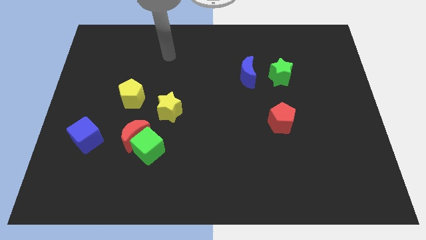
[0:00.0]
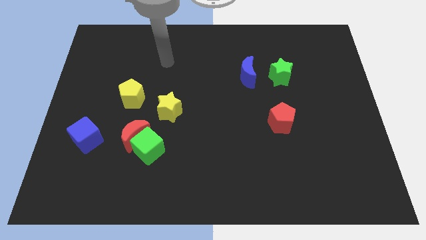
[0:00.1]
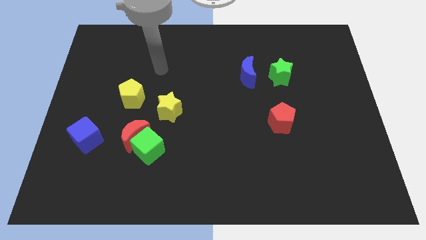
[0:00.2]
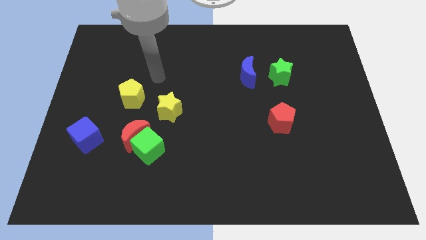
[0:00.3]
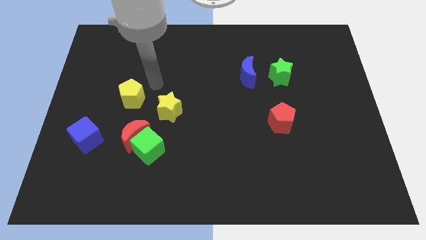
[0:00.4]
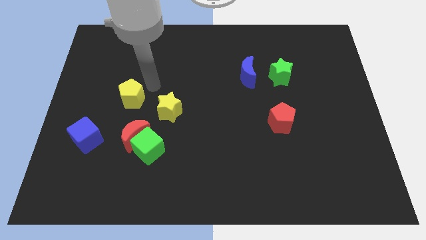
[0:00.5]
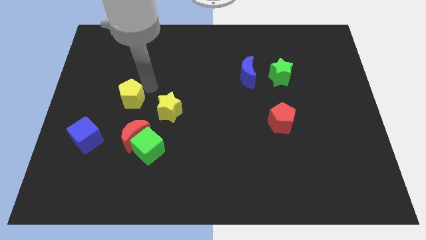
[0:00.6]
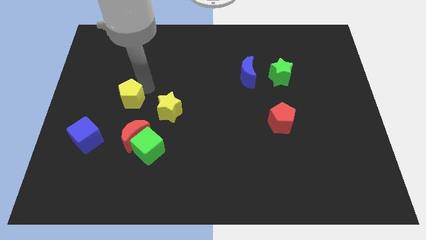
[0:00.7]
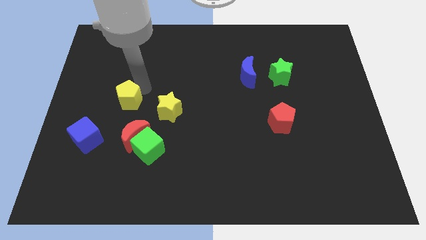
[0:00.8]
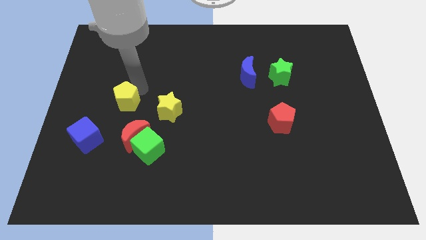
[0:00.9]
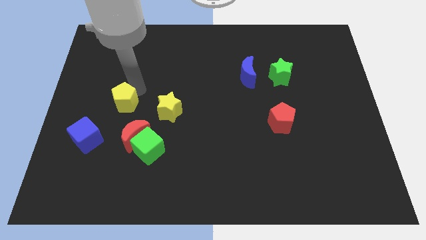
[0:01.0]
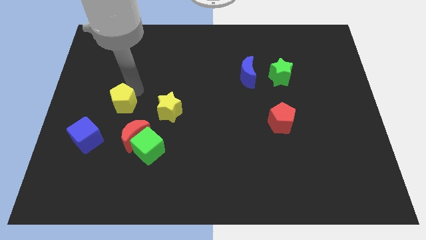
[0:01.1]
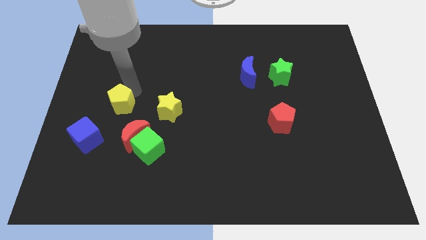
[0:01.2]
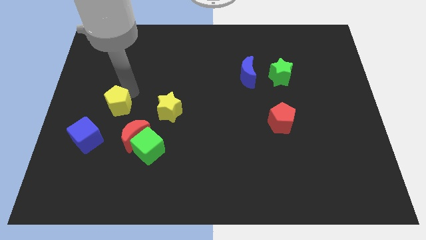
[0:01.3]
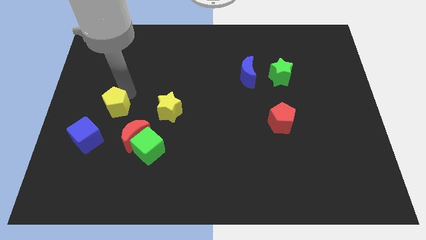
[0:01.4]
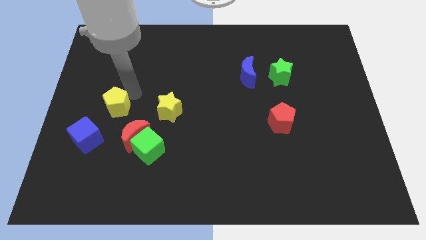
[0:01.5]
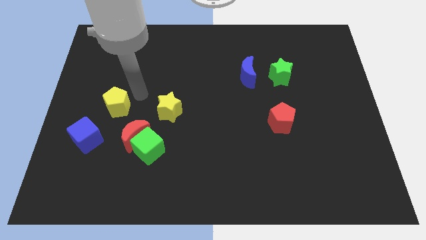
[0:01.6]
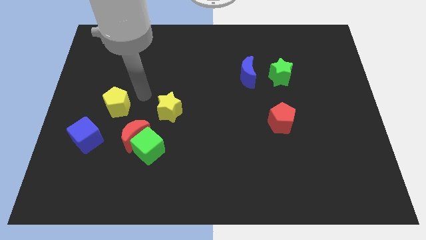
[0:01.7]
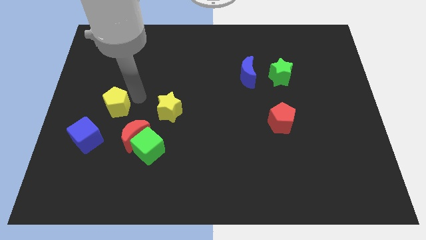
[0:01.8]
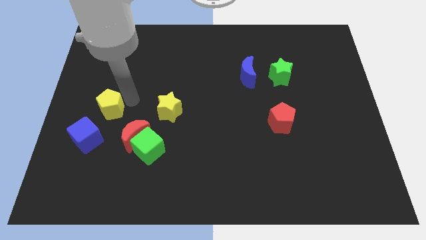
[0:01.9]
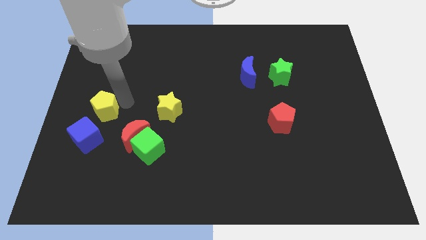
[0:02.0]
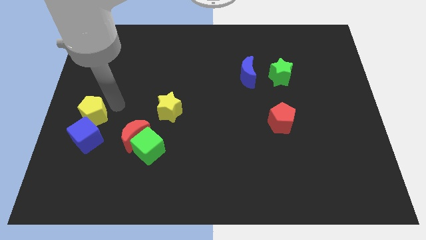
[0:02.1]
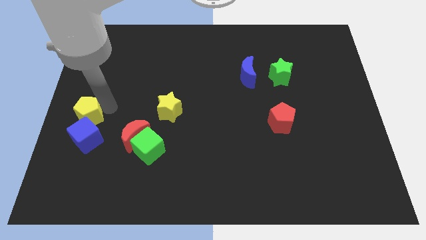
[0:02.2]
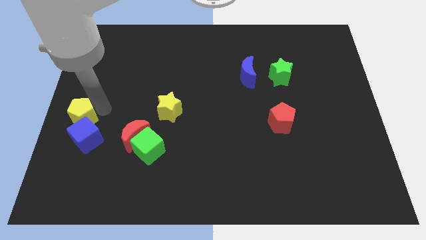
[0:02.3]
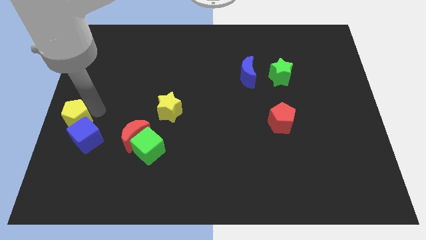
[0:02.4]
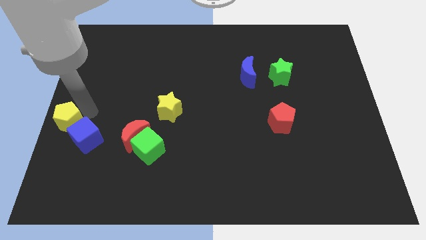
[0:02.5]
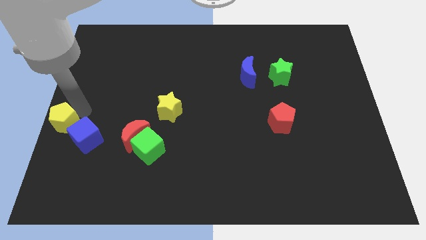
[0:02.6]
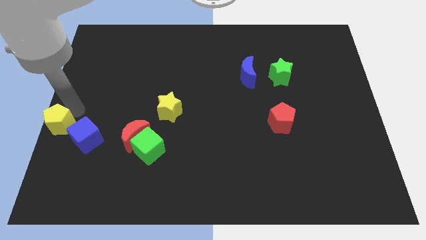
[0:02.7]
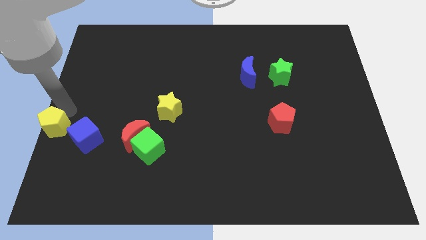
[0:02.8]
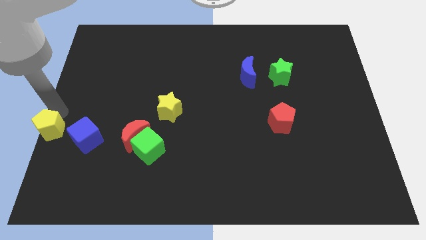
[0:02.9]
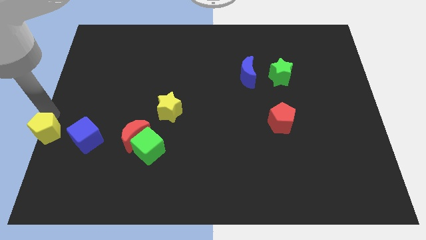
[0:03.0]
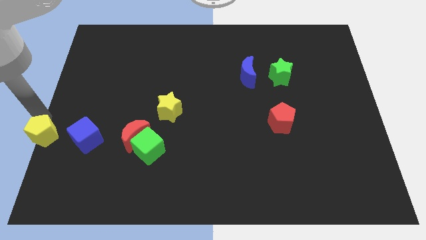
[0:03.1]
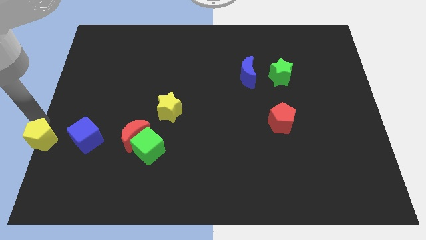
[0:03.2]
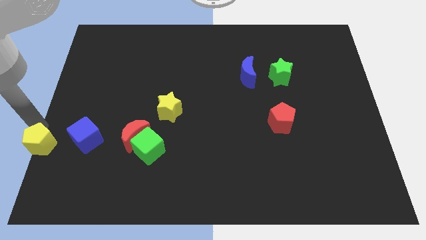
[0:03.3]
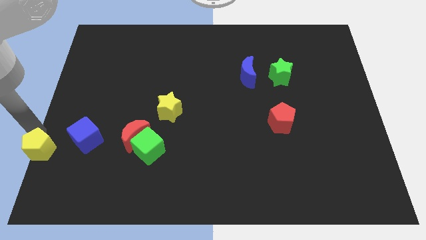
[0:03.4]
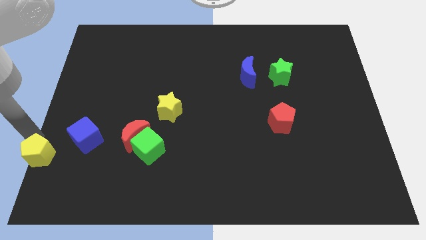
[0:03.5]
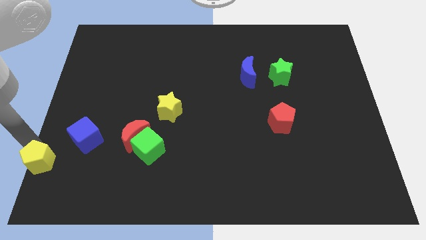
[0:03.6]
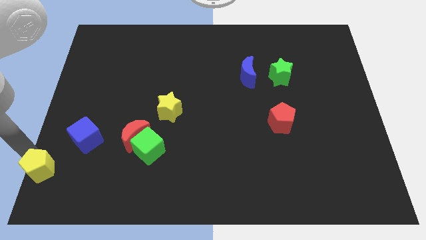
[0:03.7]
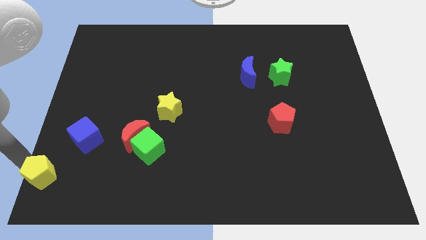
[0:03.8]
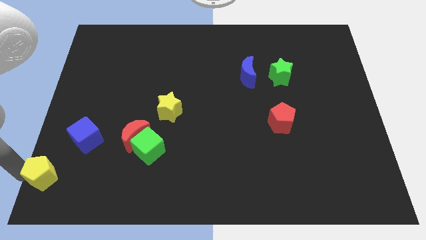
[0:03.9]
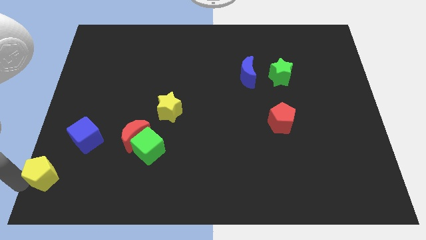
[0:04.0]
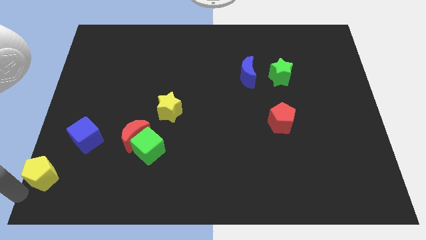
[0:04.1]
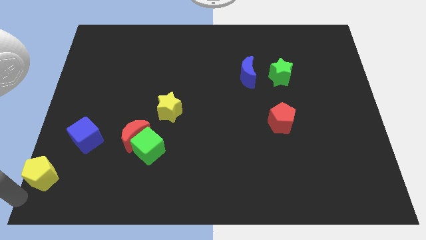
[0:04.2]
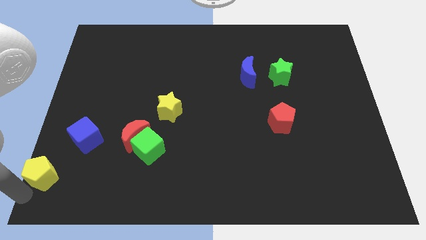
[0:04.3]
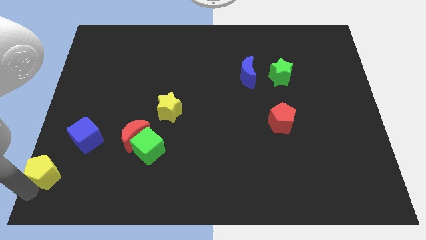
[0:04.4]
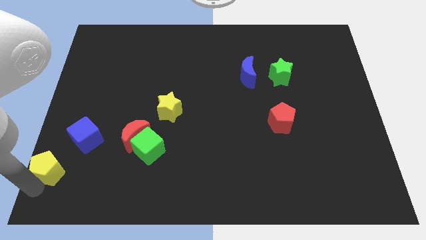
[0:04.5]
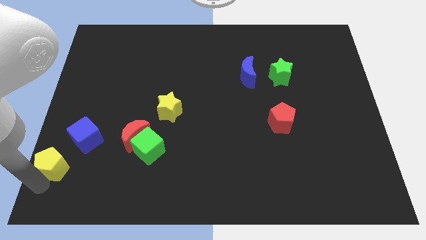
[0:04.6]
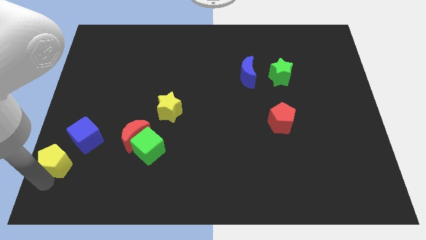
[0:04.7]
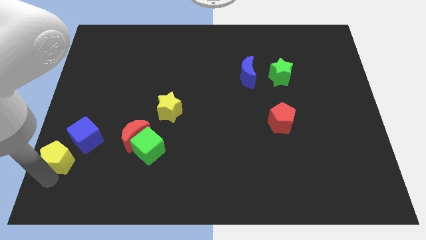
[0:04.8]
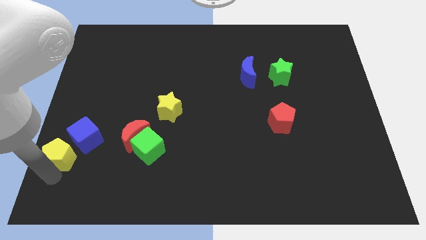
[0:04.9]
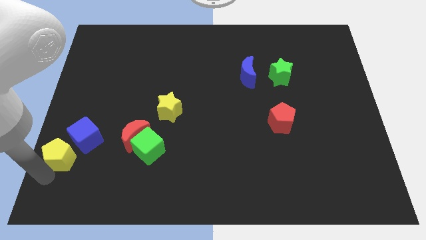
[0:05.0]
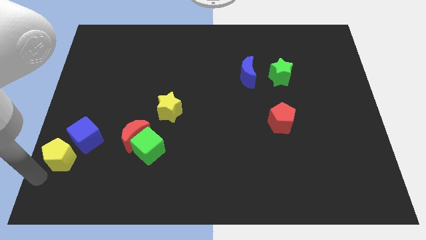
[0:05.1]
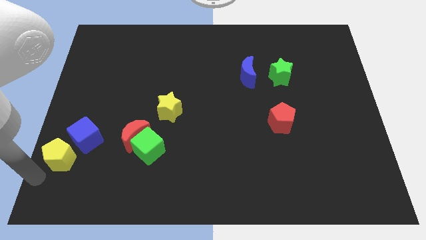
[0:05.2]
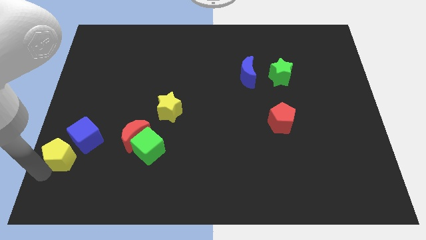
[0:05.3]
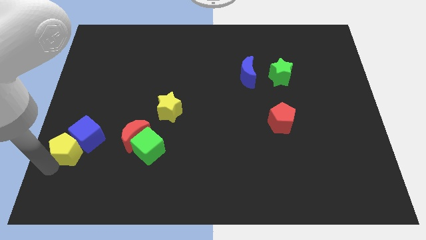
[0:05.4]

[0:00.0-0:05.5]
put the yellow pentagon left of the red moon

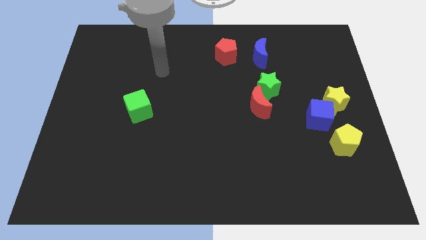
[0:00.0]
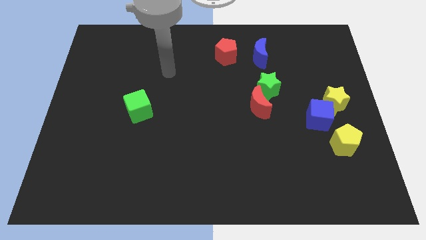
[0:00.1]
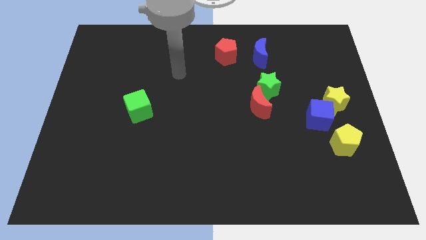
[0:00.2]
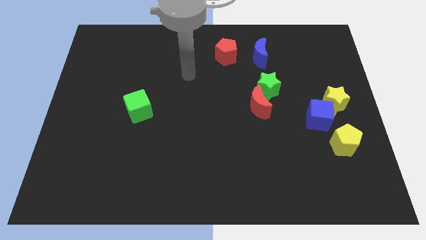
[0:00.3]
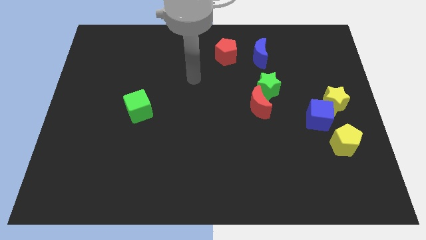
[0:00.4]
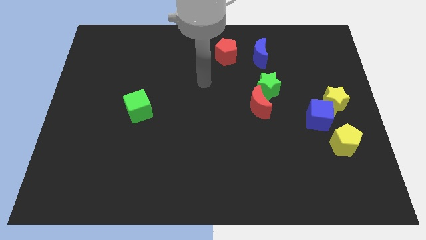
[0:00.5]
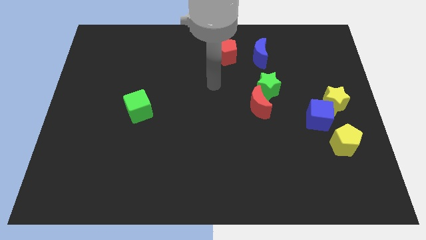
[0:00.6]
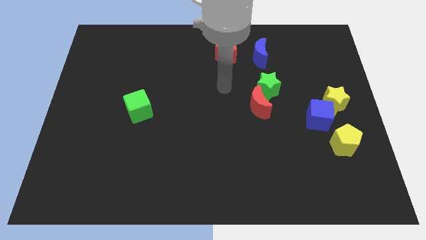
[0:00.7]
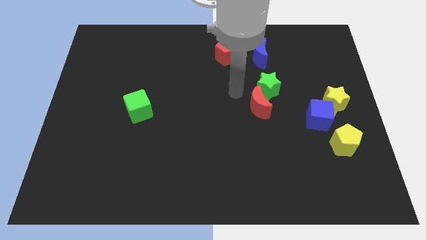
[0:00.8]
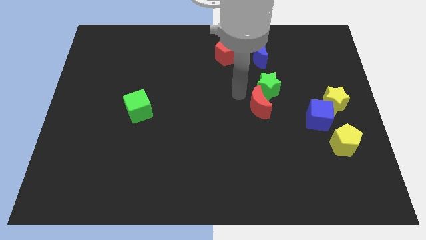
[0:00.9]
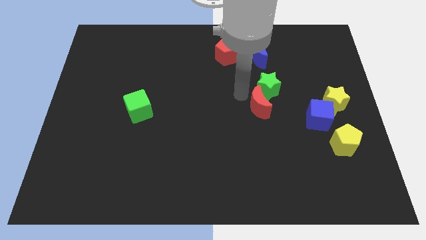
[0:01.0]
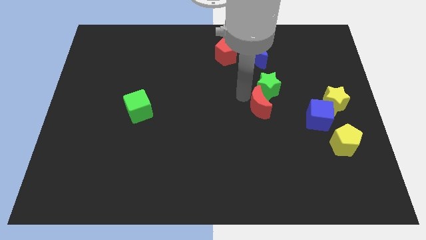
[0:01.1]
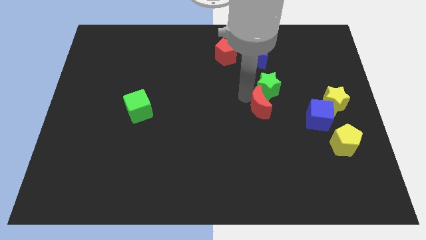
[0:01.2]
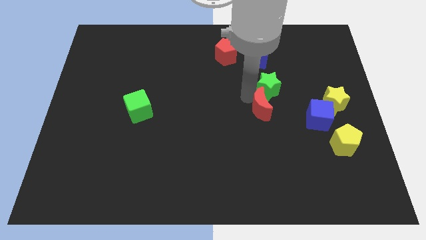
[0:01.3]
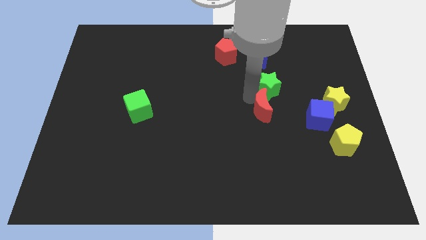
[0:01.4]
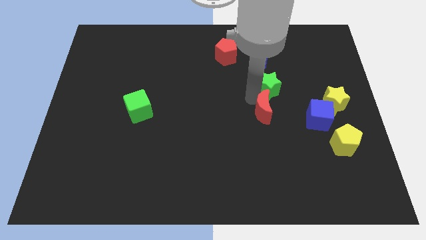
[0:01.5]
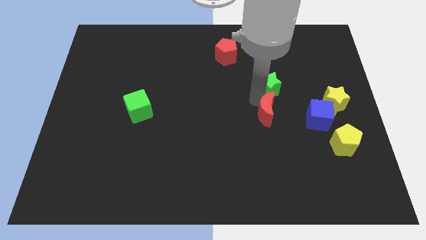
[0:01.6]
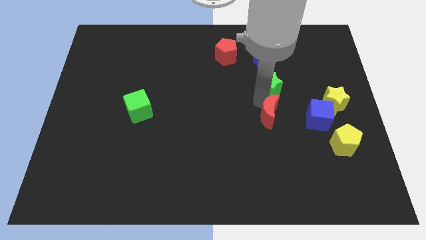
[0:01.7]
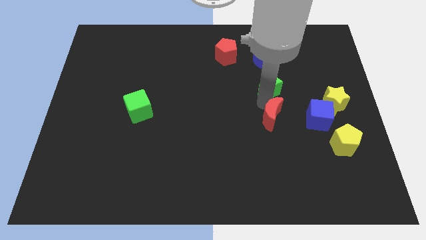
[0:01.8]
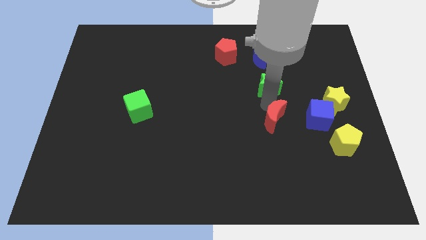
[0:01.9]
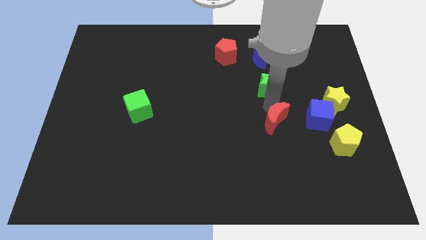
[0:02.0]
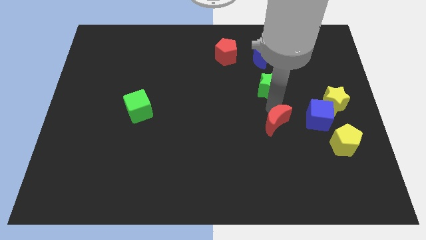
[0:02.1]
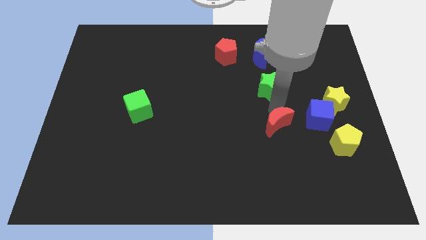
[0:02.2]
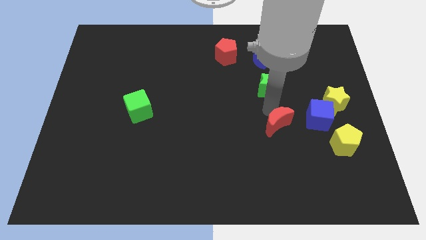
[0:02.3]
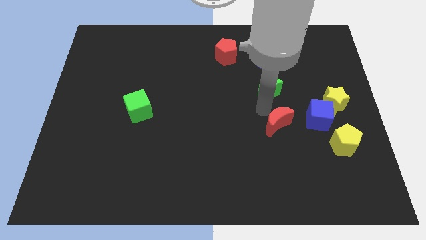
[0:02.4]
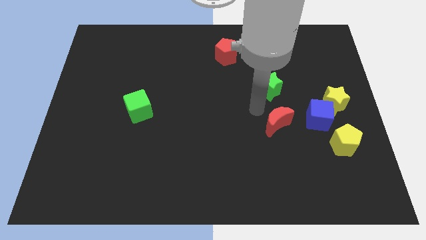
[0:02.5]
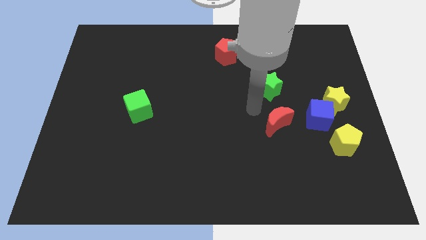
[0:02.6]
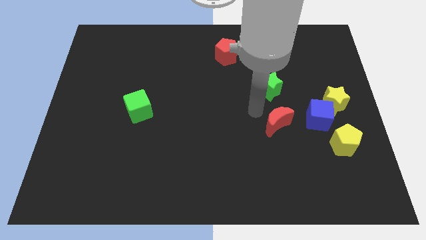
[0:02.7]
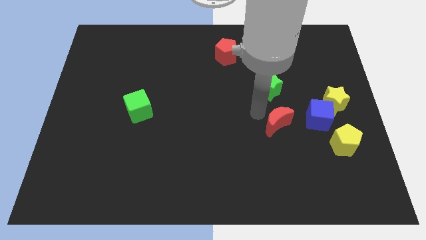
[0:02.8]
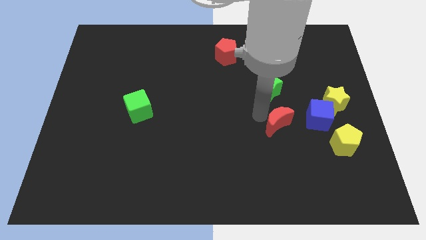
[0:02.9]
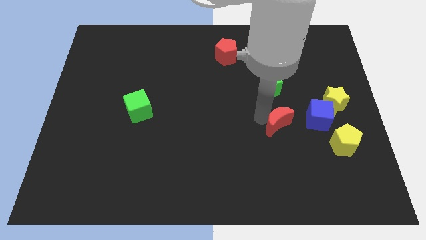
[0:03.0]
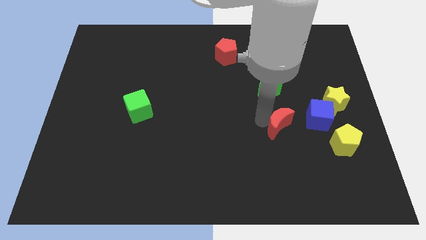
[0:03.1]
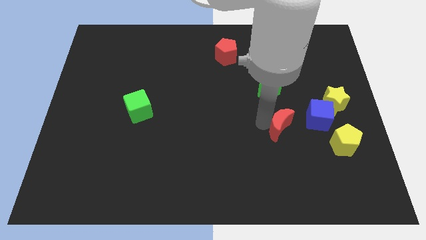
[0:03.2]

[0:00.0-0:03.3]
slide the red moon diagonally down and to the left of the blue cube
